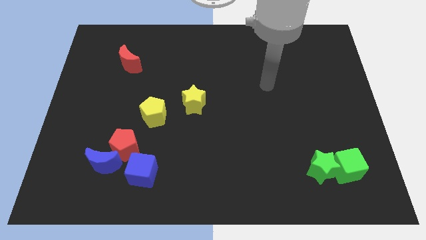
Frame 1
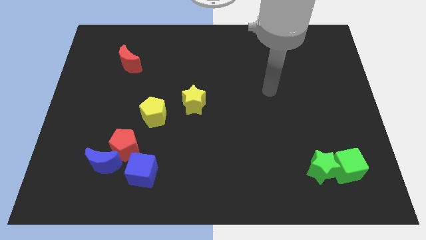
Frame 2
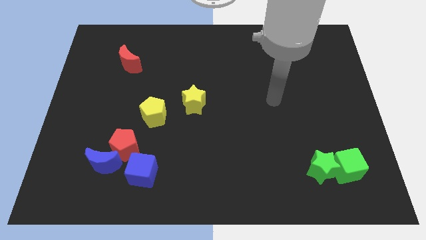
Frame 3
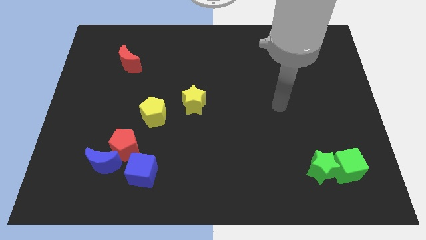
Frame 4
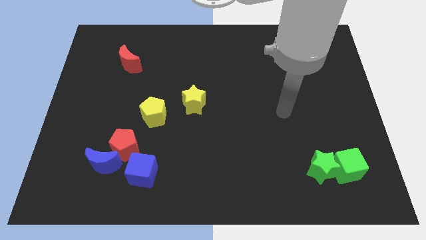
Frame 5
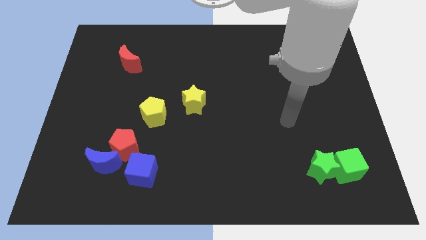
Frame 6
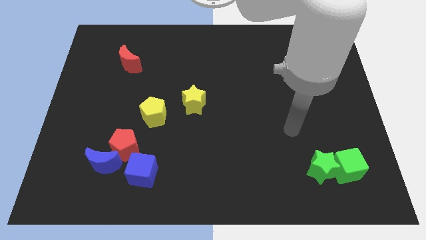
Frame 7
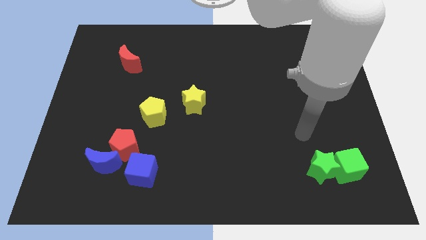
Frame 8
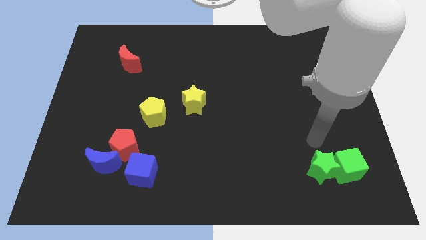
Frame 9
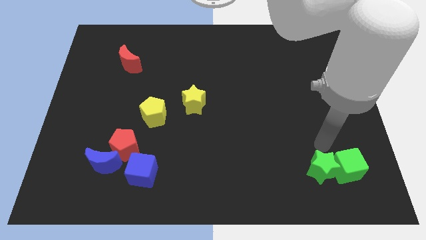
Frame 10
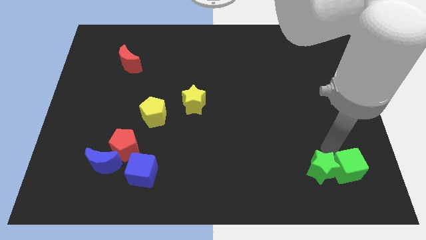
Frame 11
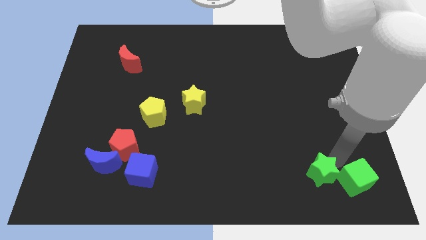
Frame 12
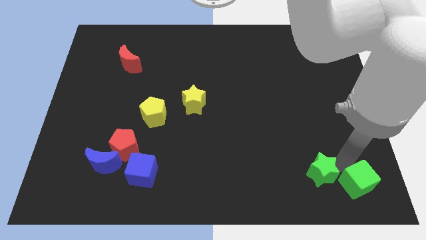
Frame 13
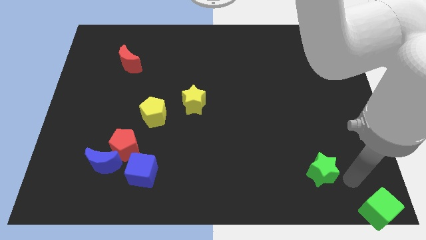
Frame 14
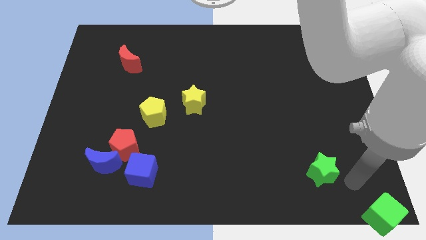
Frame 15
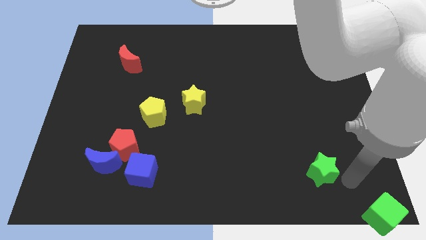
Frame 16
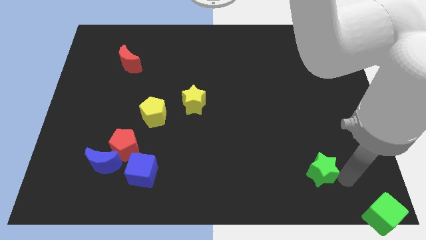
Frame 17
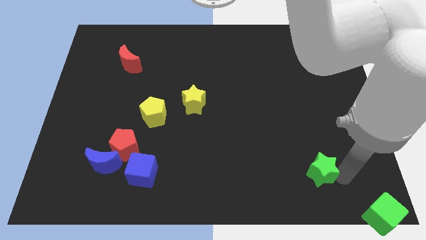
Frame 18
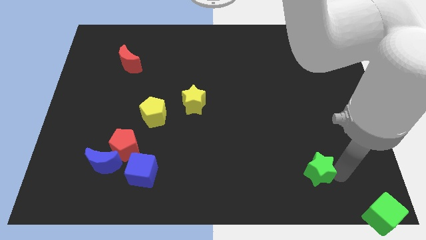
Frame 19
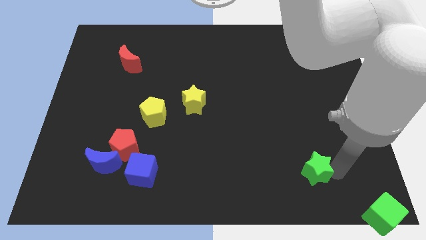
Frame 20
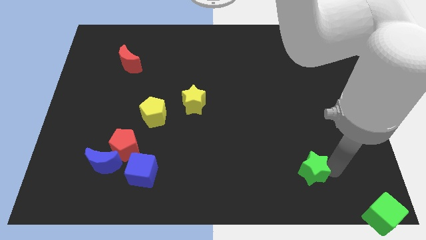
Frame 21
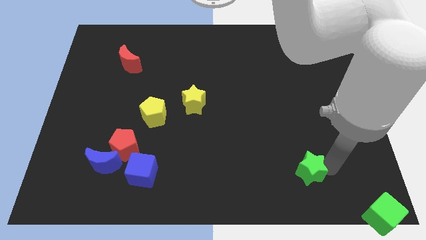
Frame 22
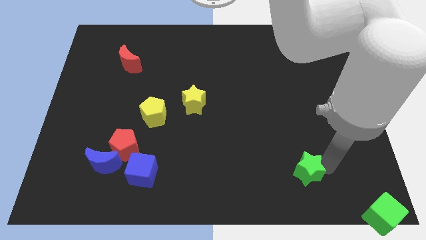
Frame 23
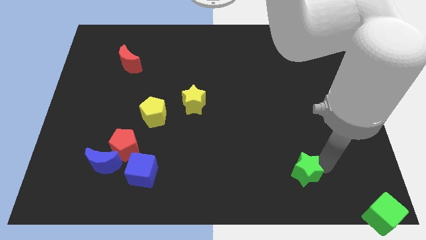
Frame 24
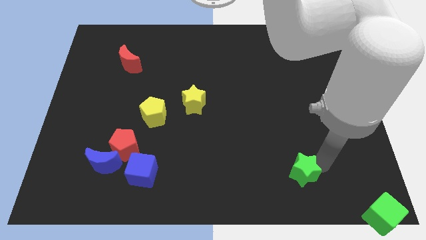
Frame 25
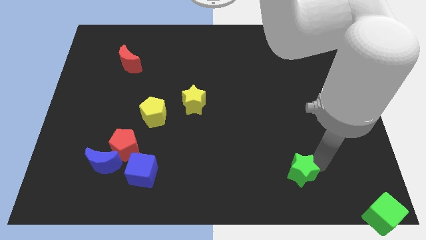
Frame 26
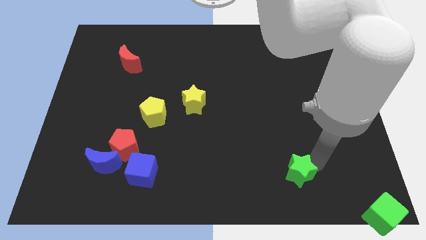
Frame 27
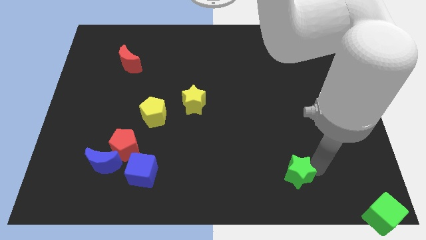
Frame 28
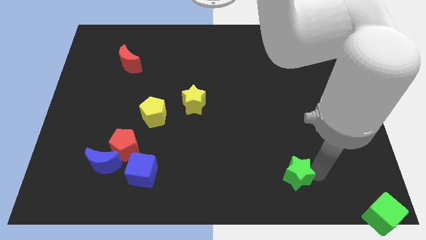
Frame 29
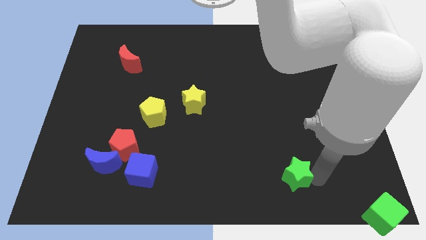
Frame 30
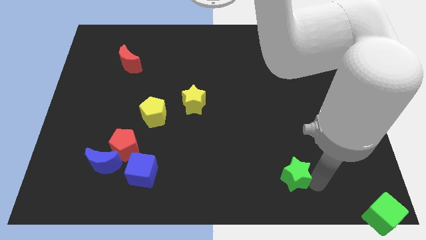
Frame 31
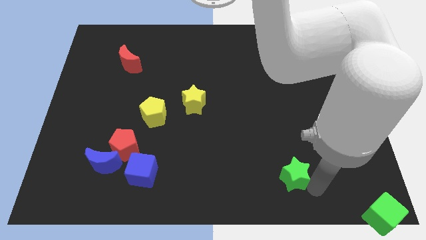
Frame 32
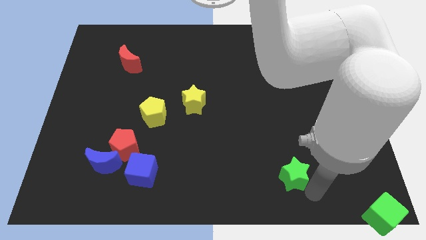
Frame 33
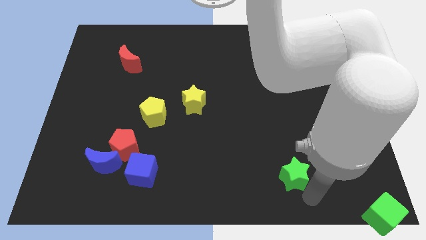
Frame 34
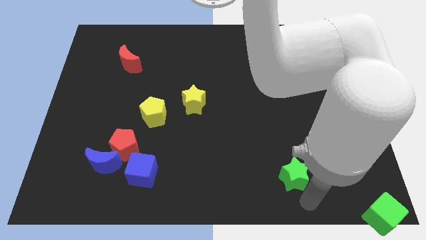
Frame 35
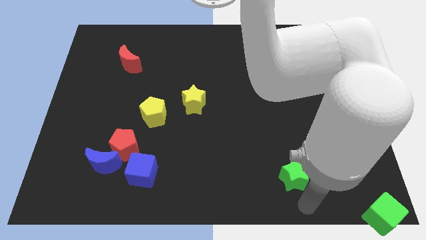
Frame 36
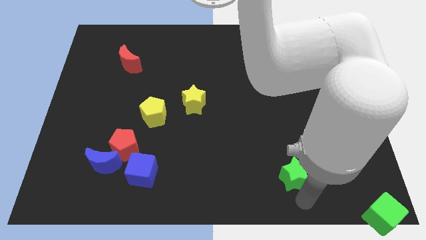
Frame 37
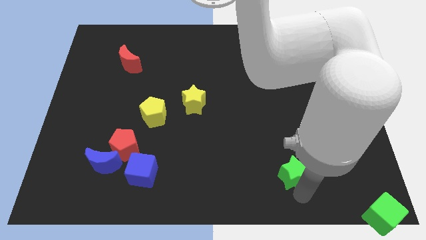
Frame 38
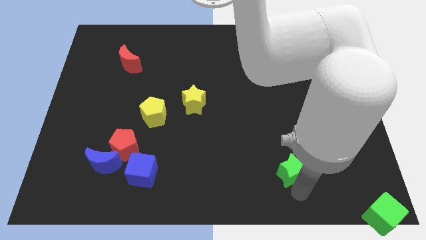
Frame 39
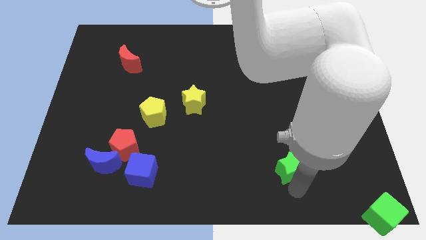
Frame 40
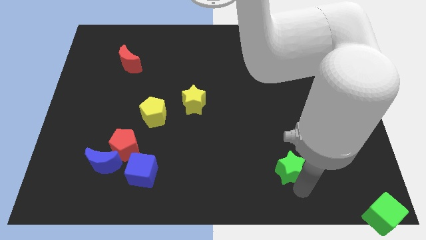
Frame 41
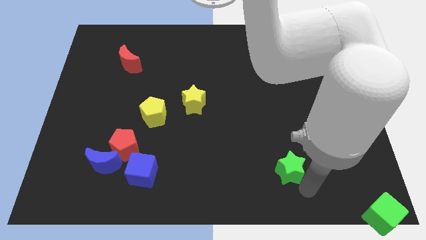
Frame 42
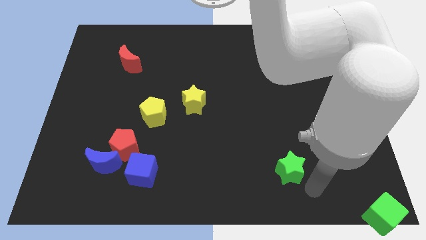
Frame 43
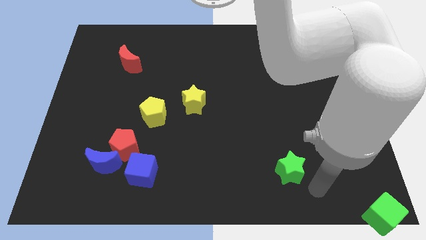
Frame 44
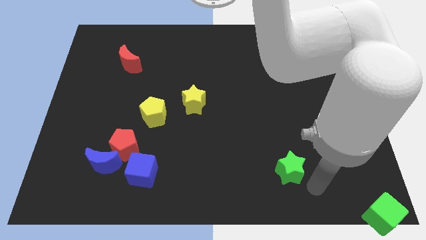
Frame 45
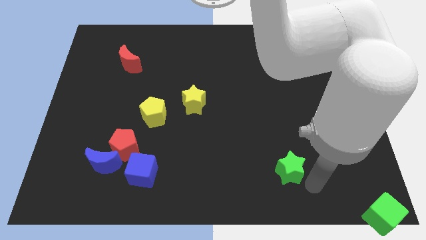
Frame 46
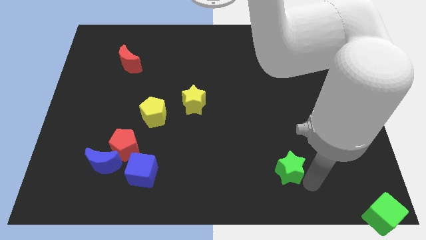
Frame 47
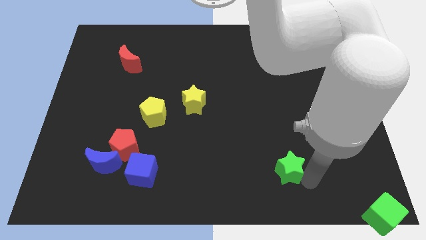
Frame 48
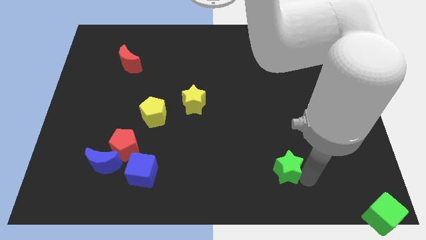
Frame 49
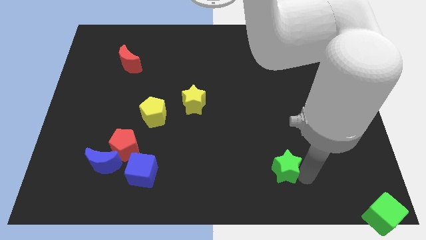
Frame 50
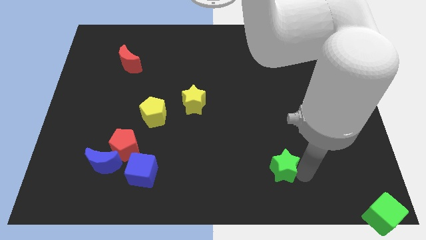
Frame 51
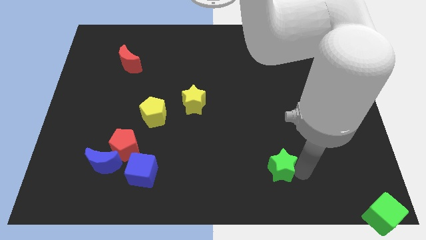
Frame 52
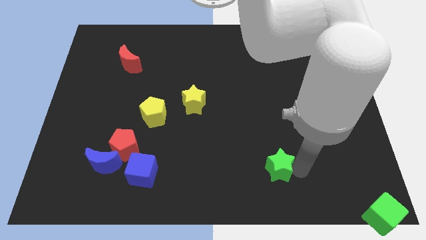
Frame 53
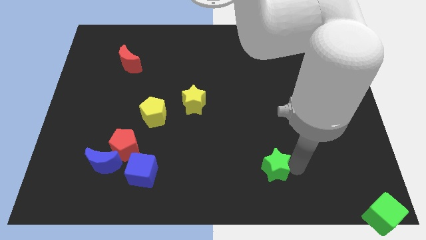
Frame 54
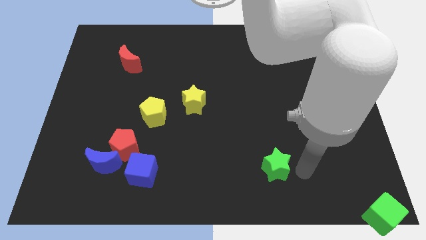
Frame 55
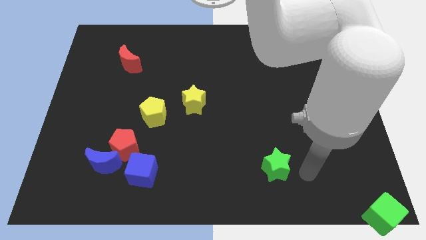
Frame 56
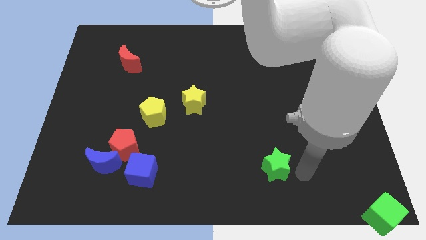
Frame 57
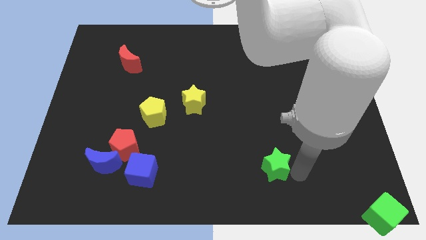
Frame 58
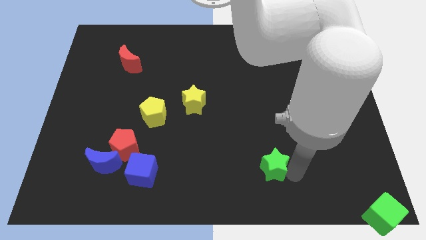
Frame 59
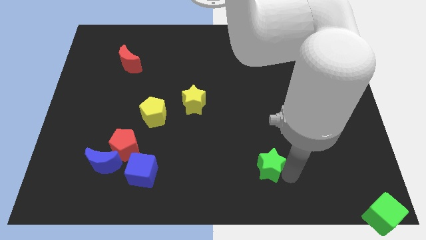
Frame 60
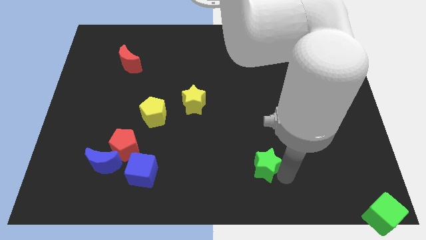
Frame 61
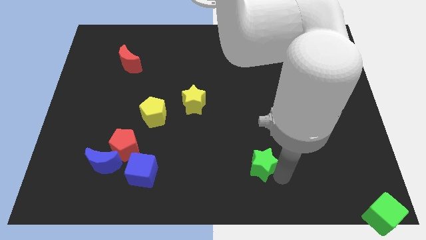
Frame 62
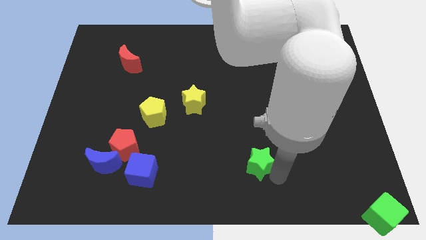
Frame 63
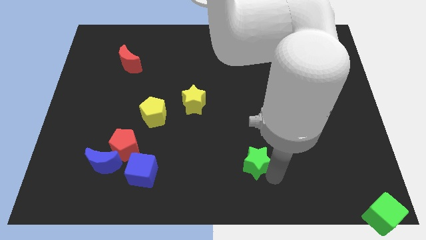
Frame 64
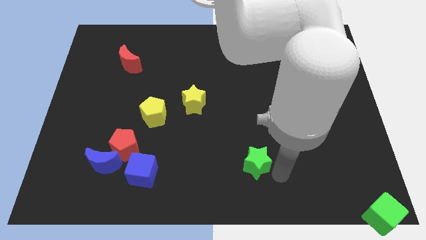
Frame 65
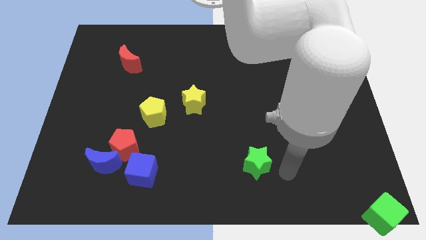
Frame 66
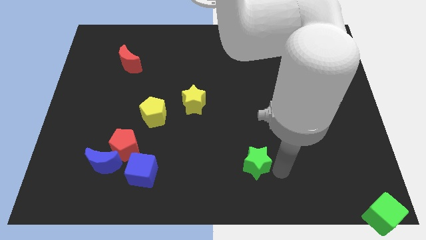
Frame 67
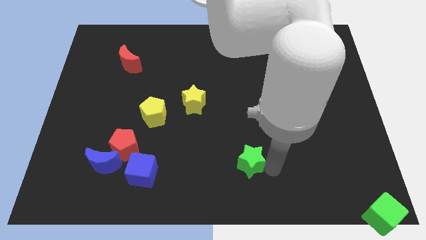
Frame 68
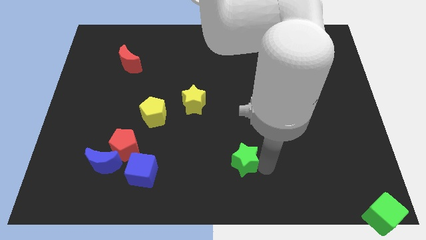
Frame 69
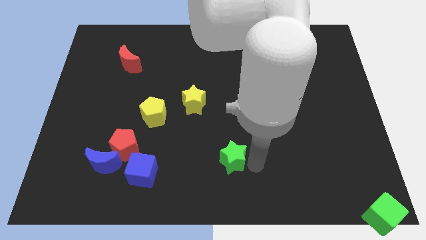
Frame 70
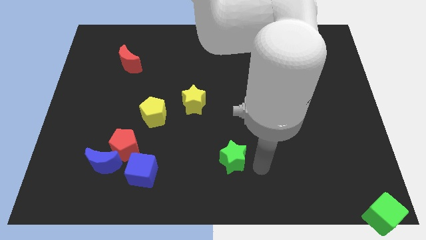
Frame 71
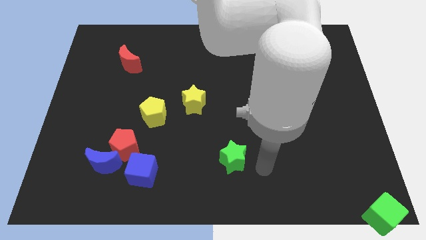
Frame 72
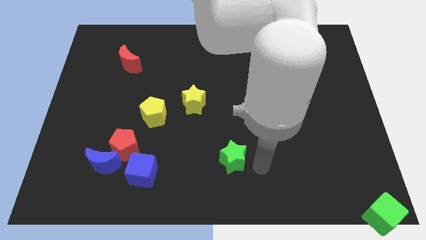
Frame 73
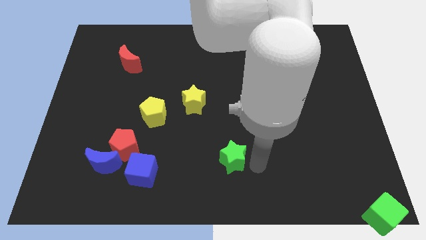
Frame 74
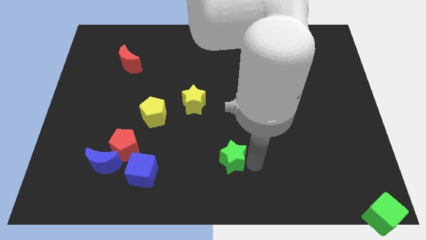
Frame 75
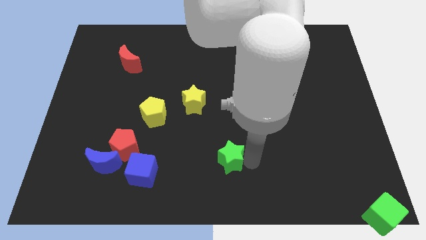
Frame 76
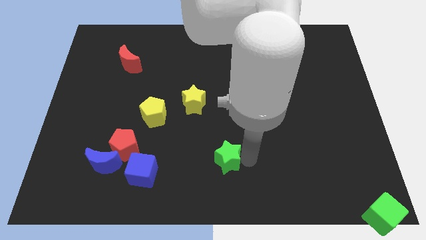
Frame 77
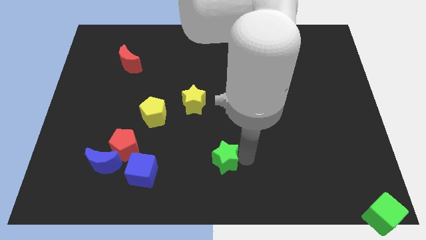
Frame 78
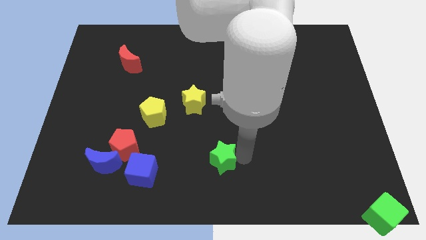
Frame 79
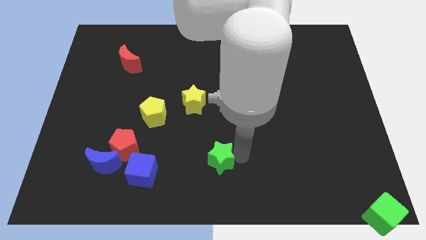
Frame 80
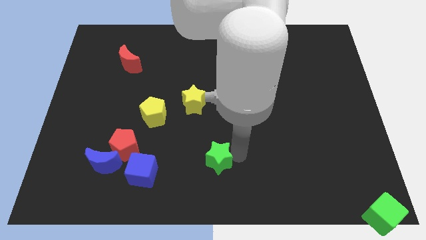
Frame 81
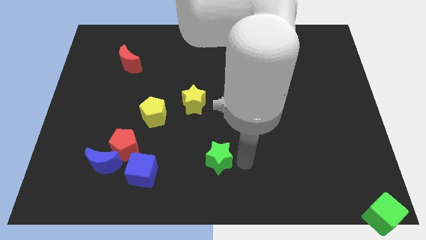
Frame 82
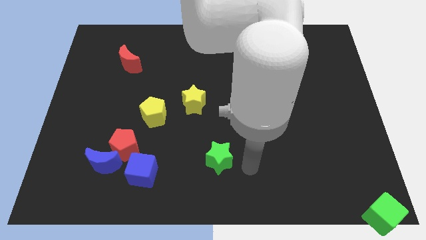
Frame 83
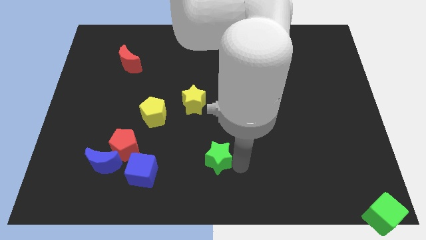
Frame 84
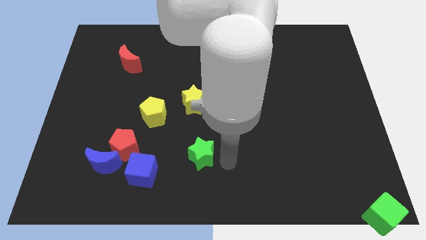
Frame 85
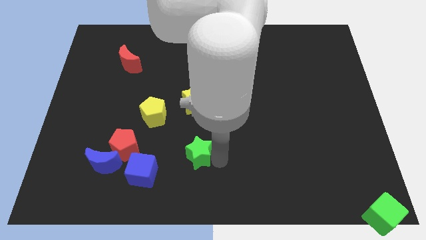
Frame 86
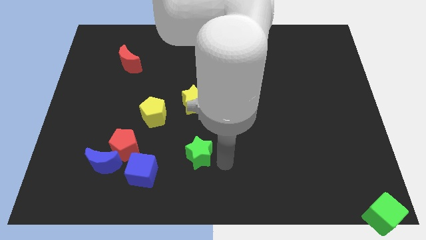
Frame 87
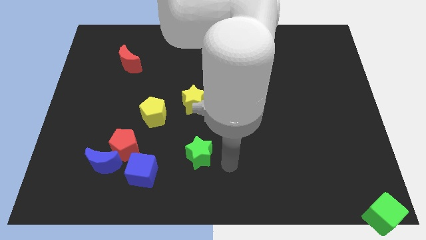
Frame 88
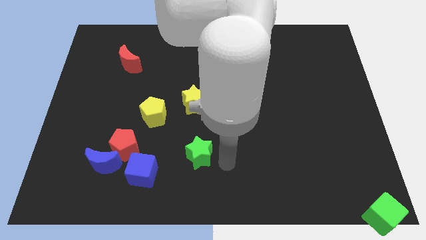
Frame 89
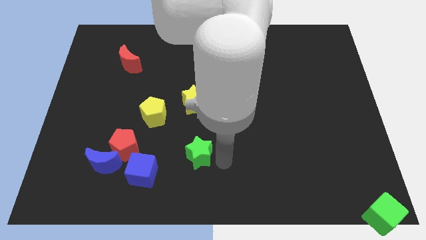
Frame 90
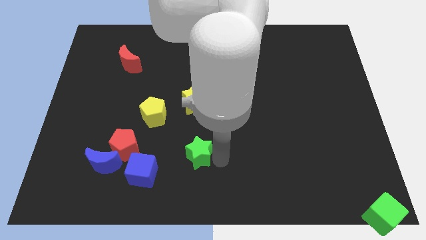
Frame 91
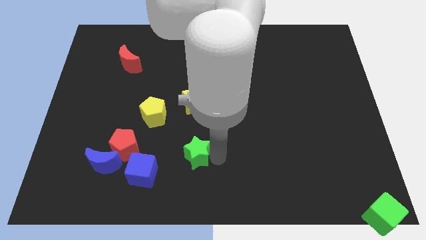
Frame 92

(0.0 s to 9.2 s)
put the green star to the right of the red pentagon
